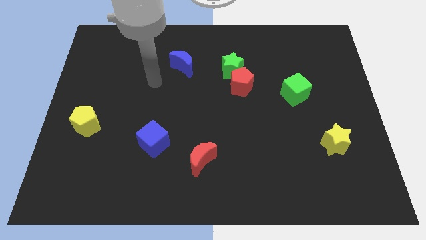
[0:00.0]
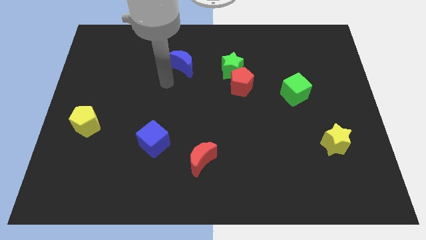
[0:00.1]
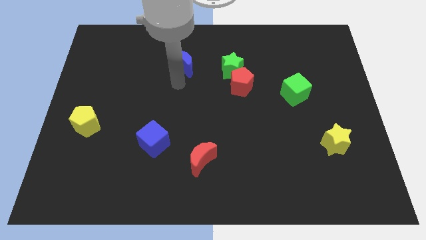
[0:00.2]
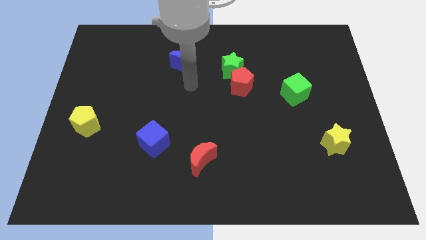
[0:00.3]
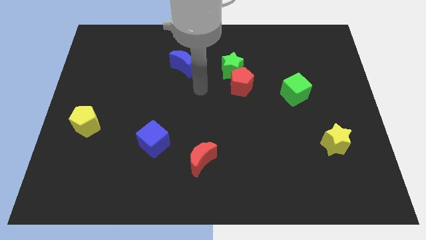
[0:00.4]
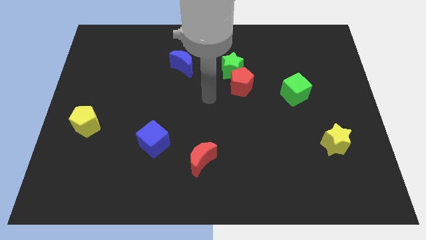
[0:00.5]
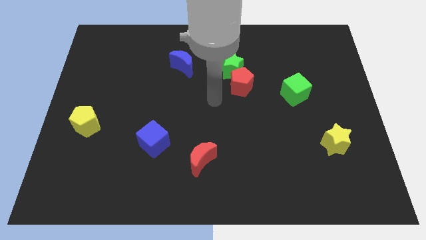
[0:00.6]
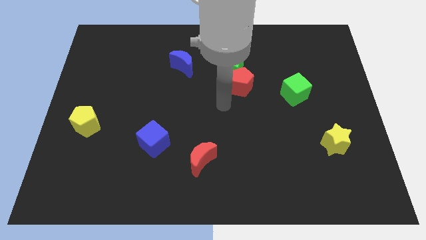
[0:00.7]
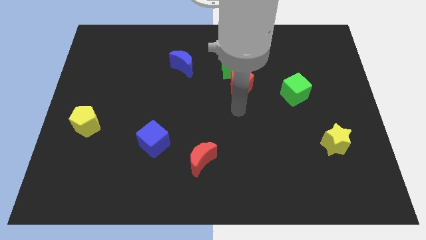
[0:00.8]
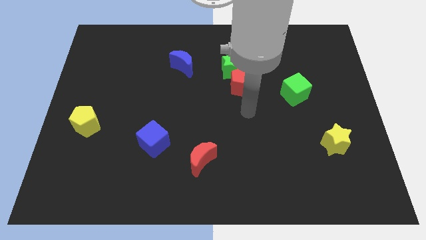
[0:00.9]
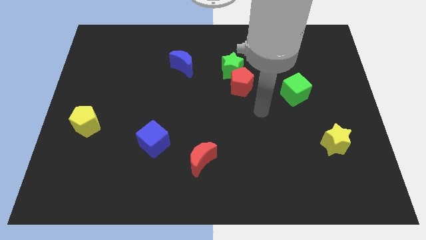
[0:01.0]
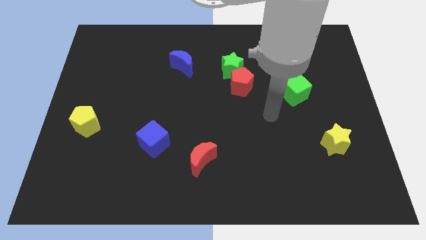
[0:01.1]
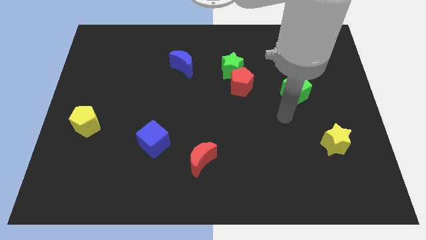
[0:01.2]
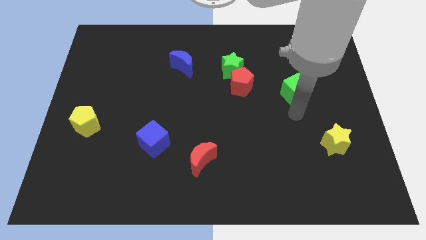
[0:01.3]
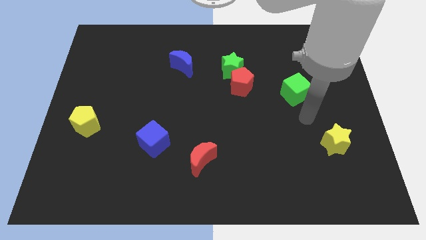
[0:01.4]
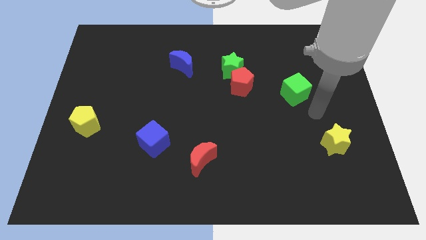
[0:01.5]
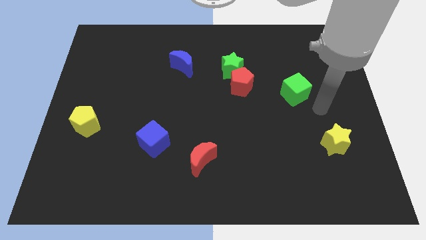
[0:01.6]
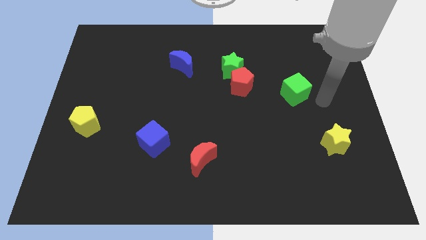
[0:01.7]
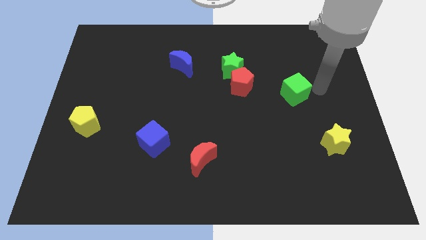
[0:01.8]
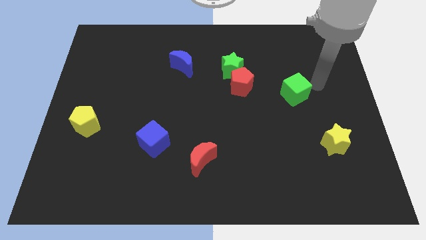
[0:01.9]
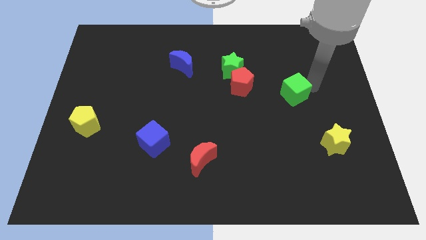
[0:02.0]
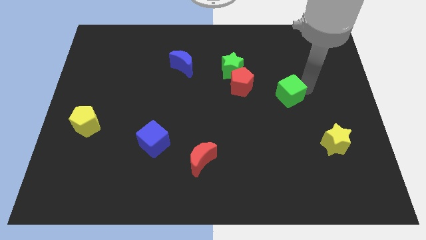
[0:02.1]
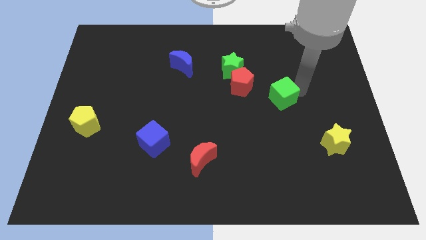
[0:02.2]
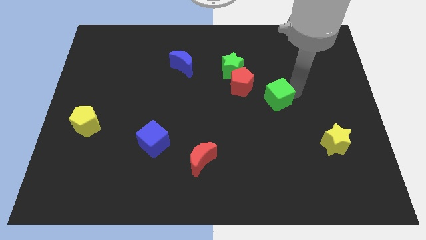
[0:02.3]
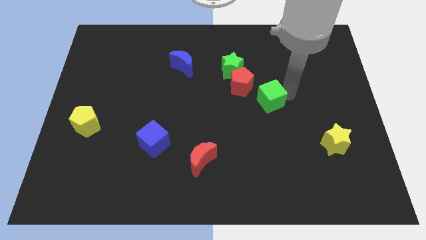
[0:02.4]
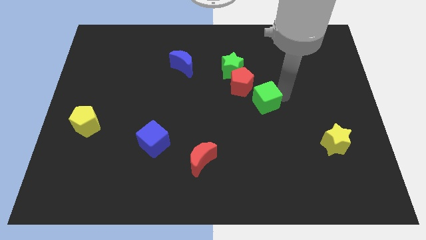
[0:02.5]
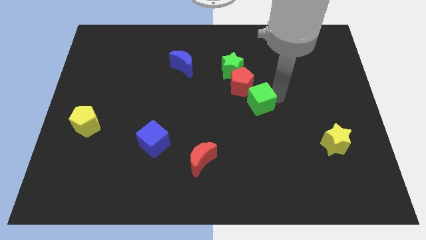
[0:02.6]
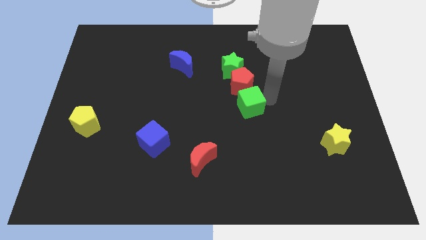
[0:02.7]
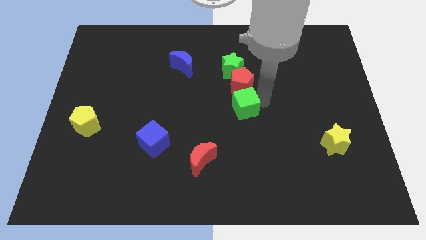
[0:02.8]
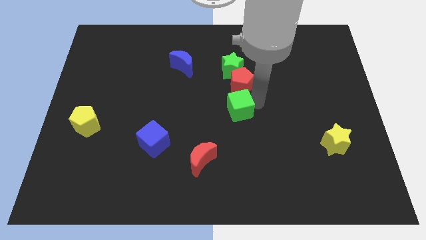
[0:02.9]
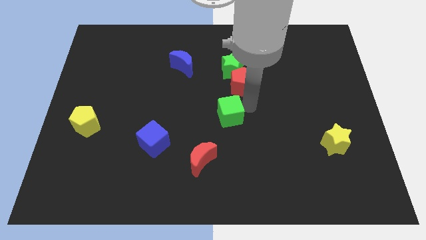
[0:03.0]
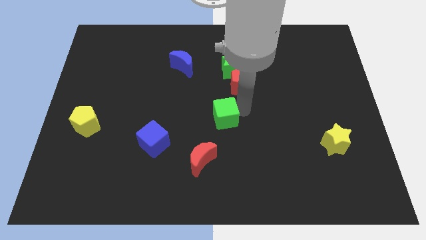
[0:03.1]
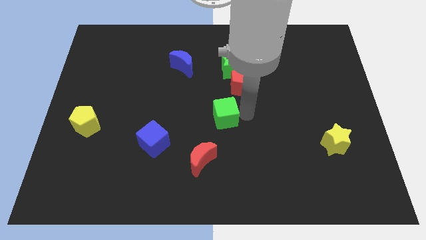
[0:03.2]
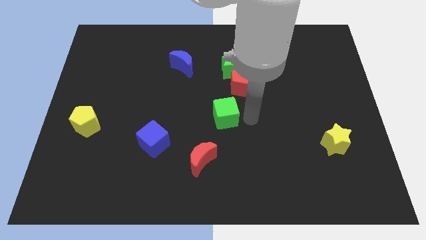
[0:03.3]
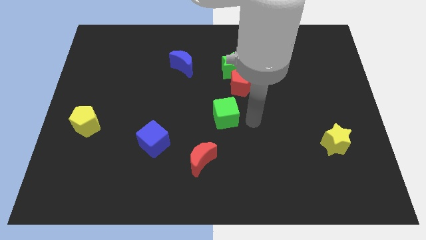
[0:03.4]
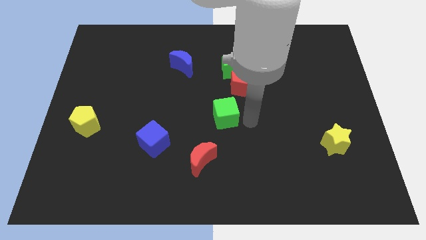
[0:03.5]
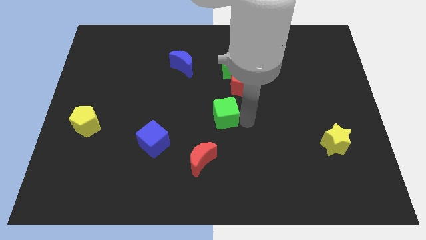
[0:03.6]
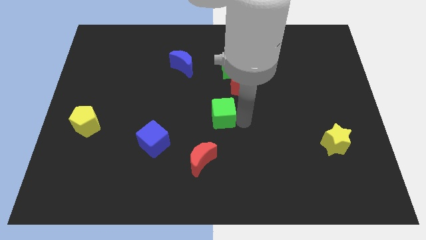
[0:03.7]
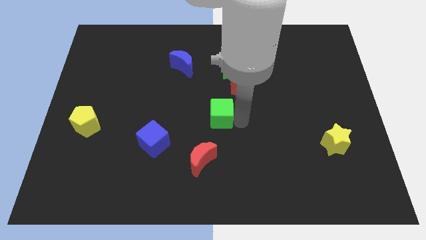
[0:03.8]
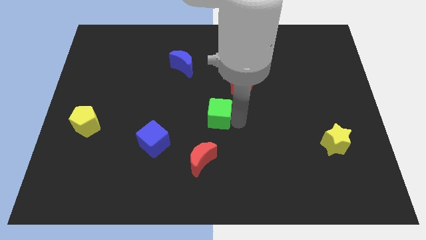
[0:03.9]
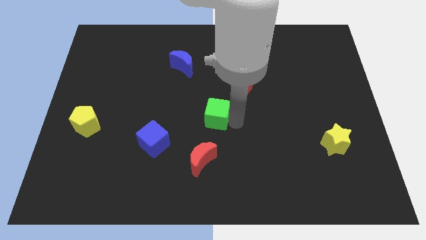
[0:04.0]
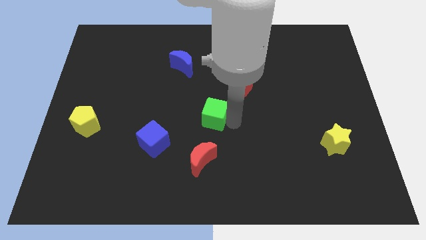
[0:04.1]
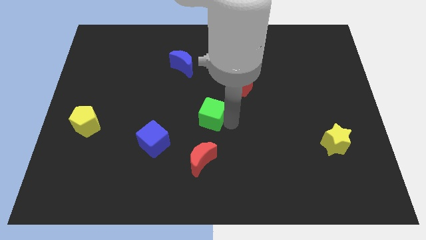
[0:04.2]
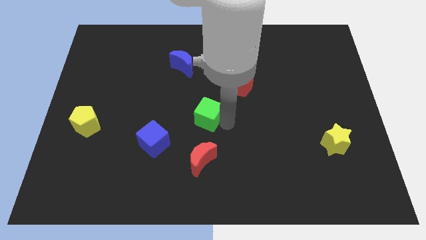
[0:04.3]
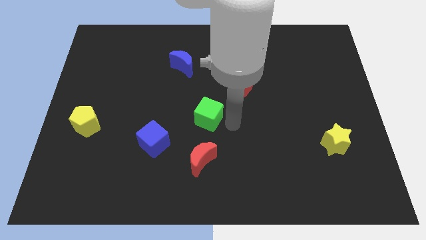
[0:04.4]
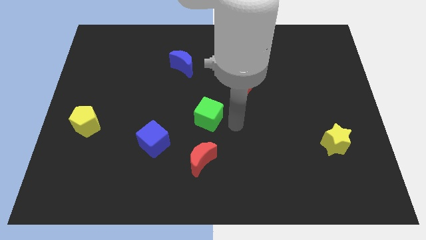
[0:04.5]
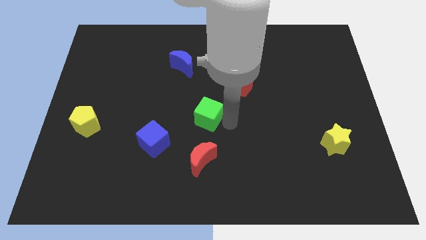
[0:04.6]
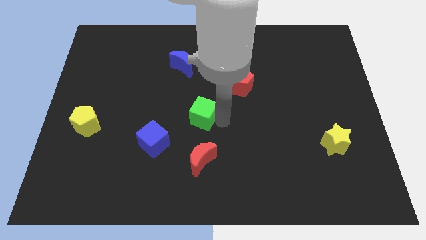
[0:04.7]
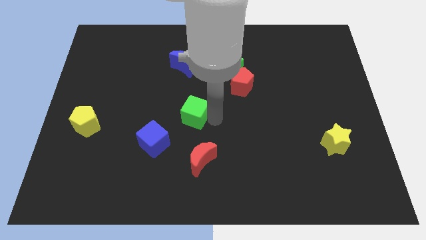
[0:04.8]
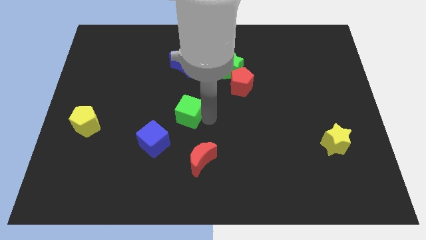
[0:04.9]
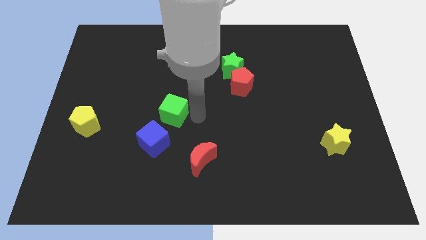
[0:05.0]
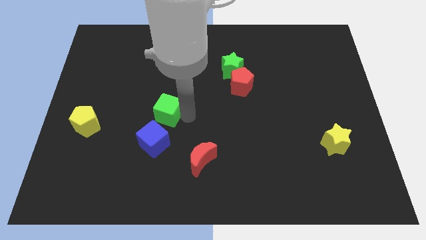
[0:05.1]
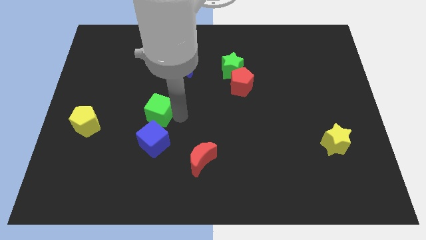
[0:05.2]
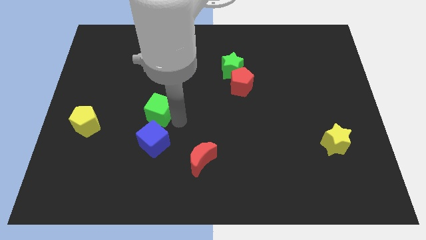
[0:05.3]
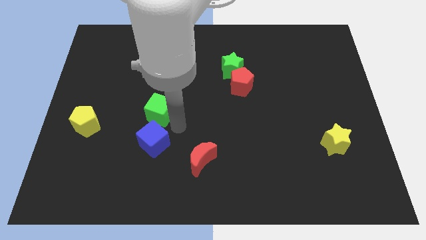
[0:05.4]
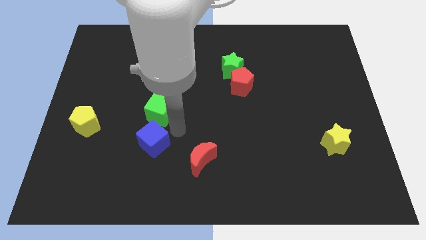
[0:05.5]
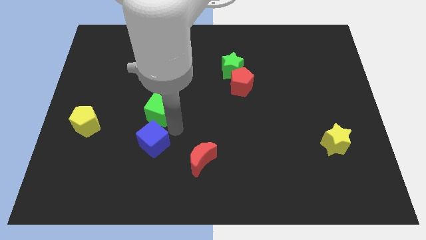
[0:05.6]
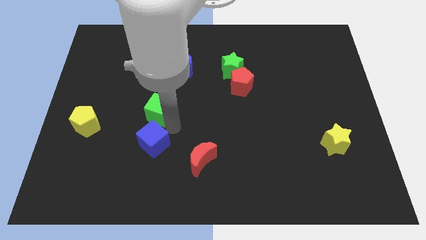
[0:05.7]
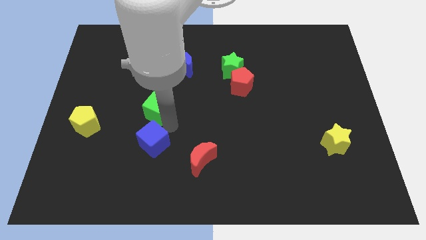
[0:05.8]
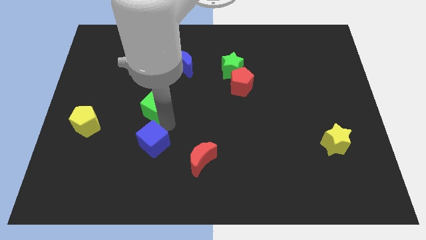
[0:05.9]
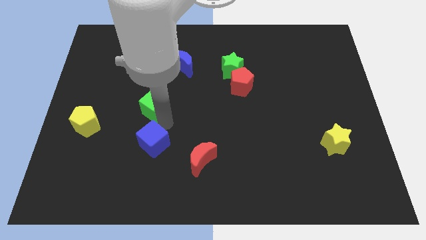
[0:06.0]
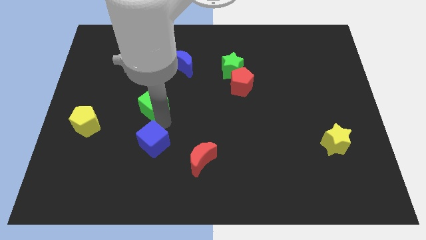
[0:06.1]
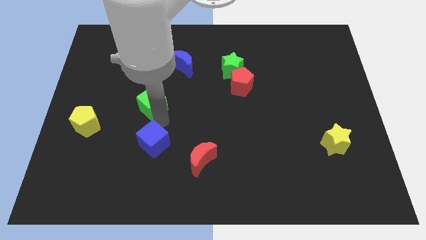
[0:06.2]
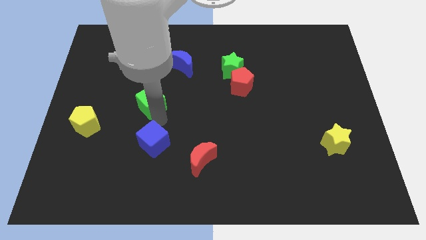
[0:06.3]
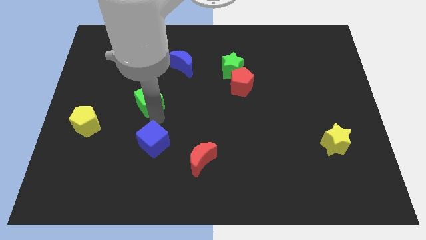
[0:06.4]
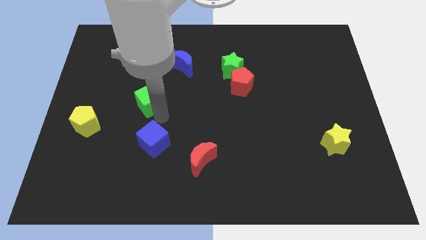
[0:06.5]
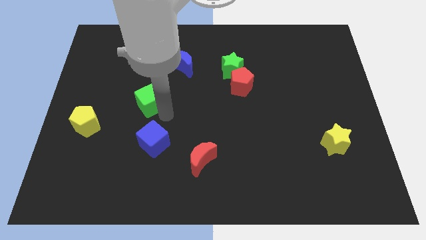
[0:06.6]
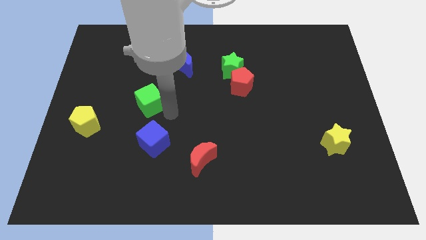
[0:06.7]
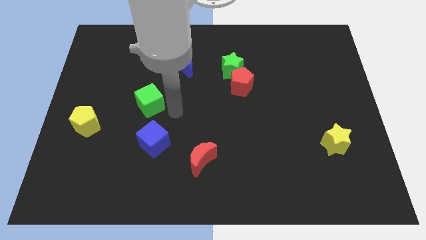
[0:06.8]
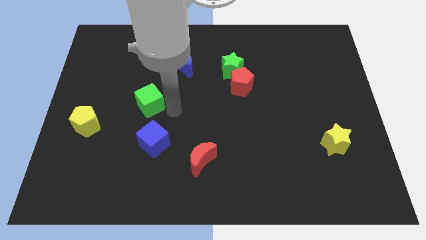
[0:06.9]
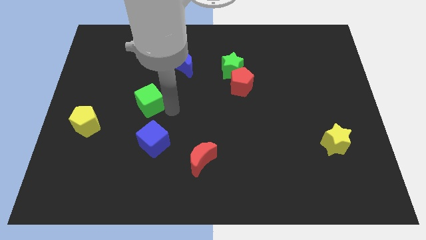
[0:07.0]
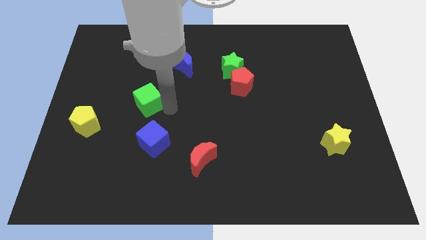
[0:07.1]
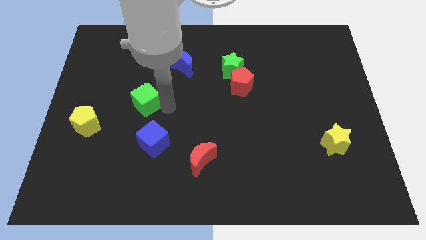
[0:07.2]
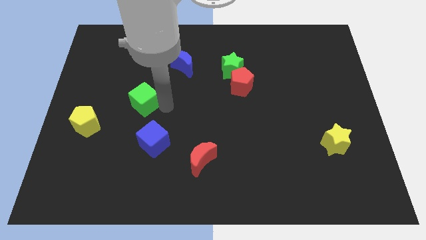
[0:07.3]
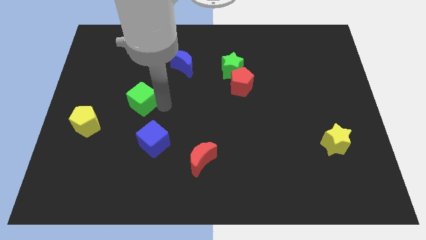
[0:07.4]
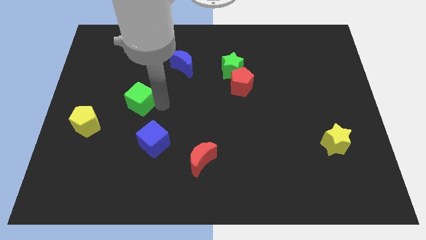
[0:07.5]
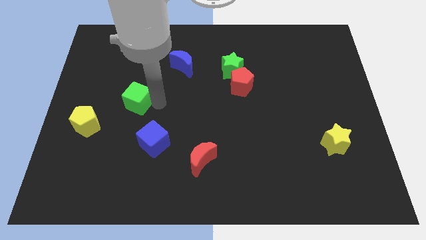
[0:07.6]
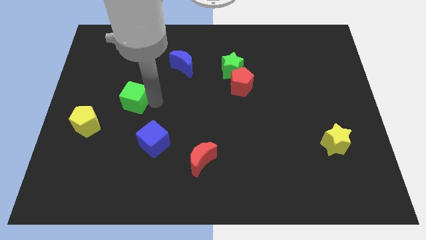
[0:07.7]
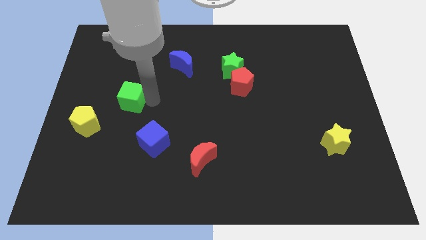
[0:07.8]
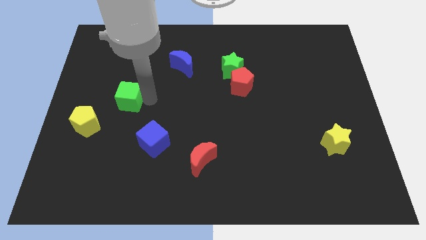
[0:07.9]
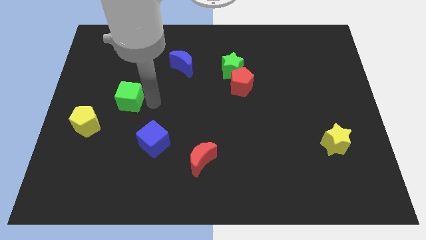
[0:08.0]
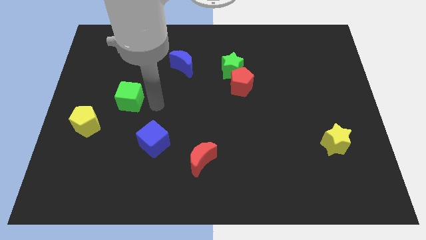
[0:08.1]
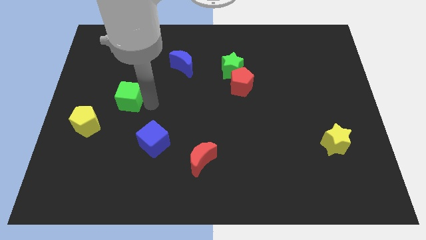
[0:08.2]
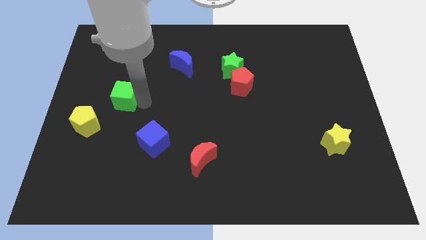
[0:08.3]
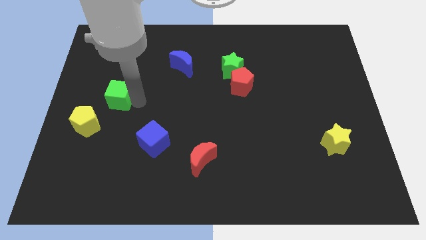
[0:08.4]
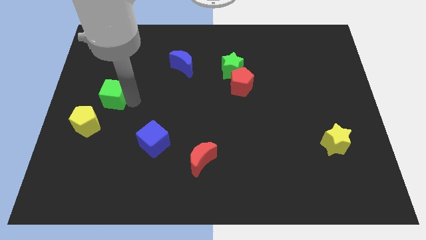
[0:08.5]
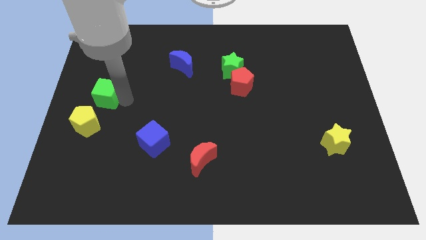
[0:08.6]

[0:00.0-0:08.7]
put the green cube to the top side of the yellow pentagon
